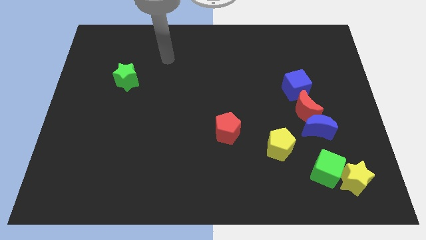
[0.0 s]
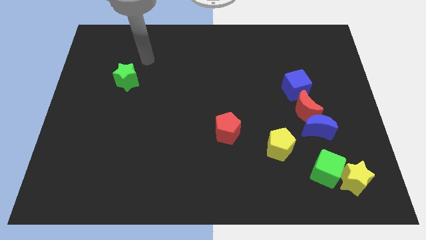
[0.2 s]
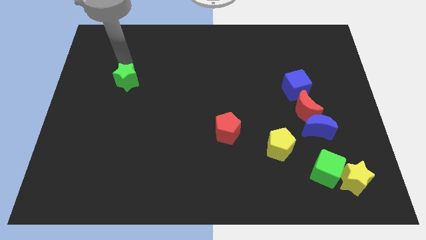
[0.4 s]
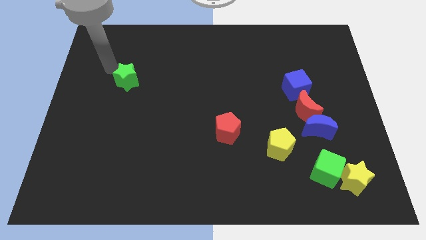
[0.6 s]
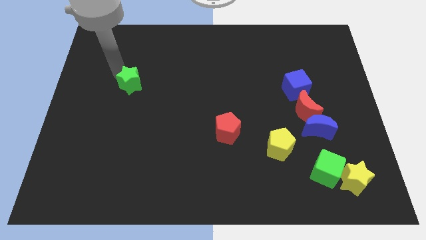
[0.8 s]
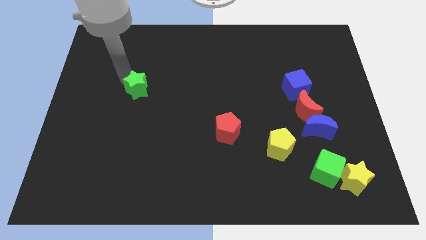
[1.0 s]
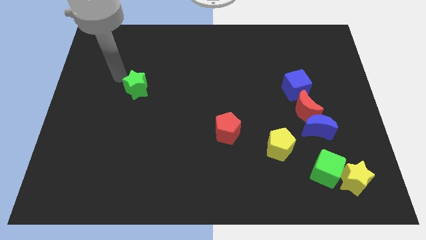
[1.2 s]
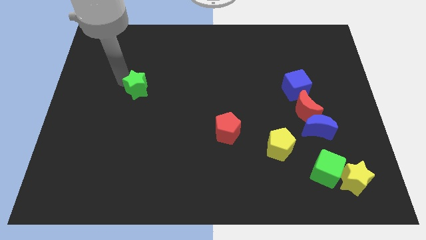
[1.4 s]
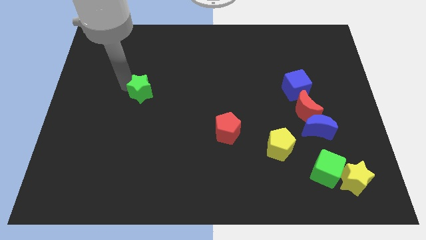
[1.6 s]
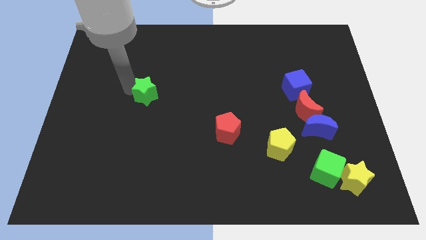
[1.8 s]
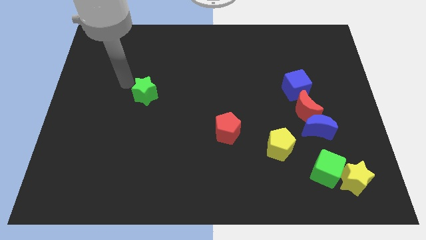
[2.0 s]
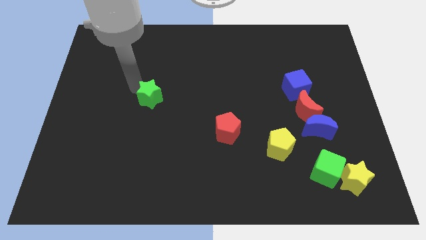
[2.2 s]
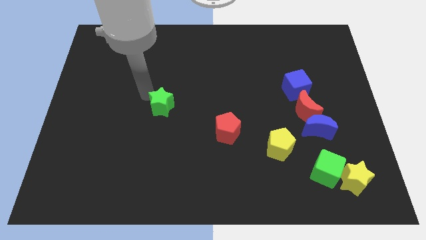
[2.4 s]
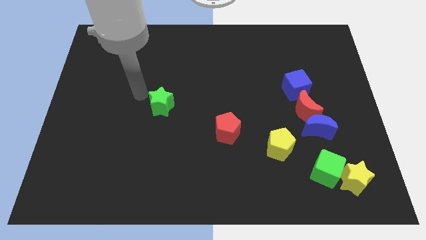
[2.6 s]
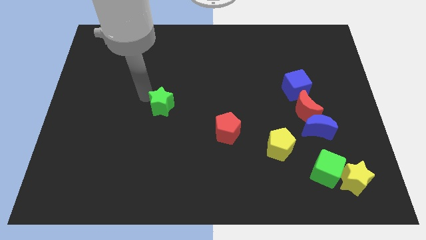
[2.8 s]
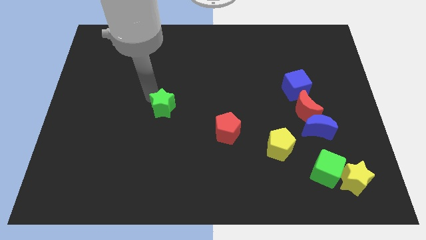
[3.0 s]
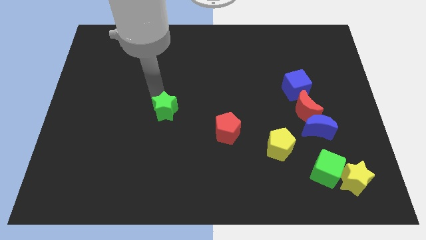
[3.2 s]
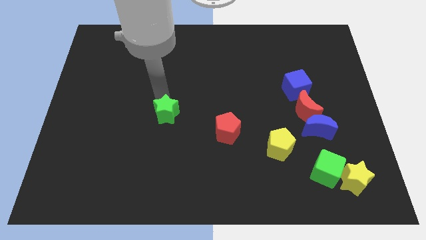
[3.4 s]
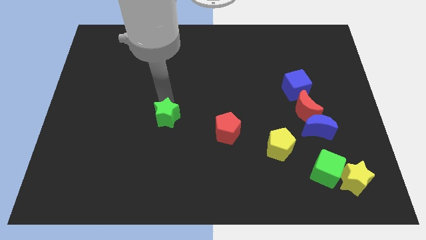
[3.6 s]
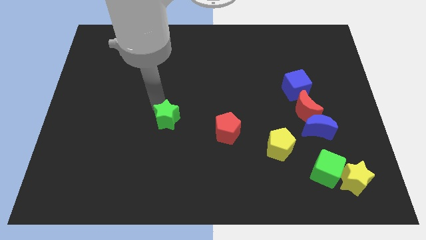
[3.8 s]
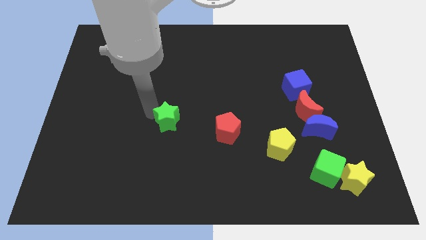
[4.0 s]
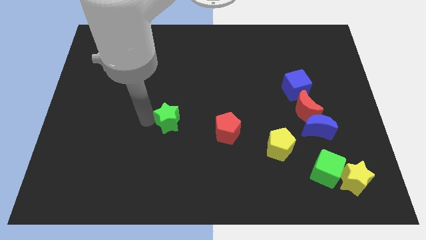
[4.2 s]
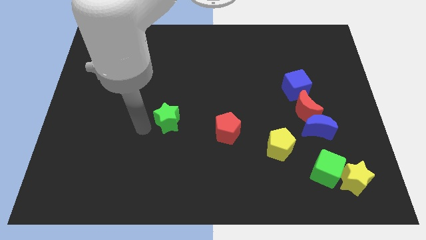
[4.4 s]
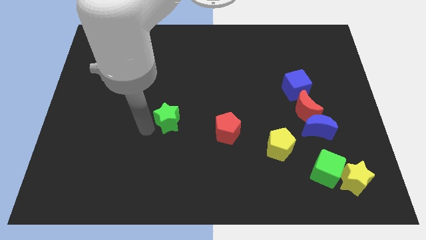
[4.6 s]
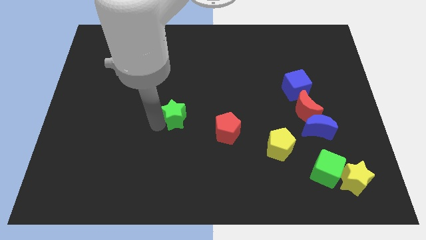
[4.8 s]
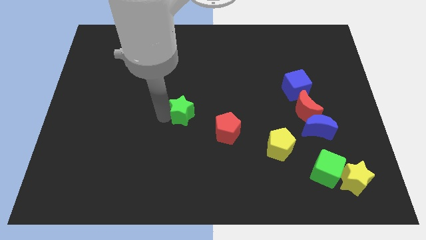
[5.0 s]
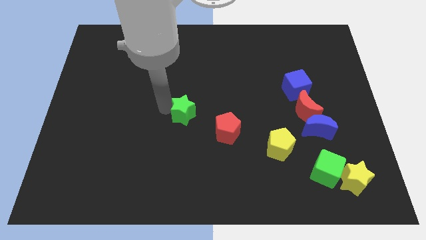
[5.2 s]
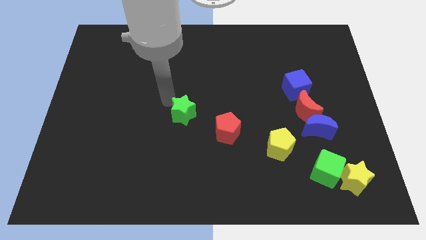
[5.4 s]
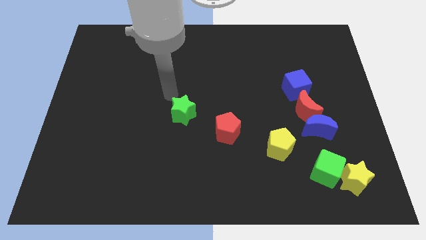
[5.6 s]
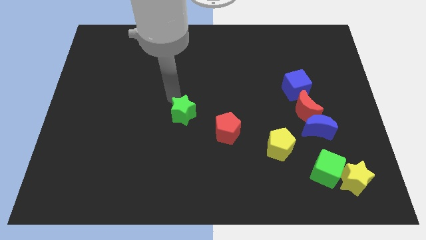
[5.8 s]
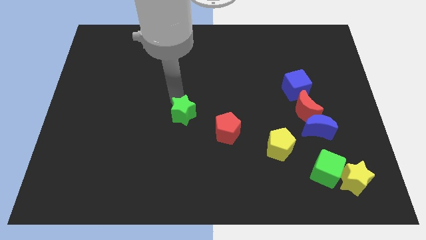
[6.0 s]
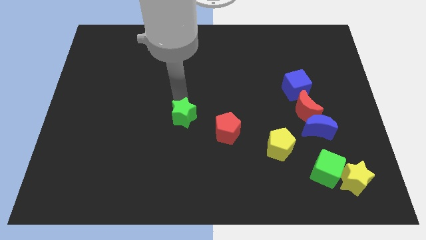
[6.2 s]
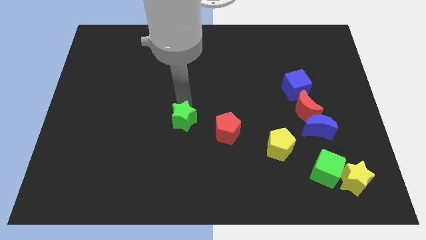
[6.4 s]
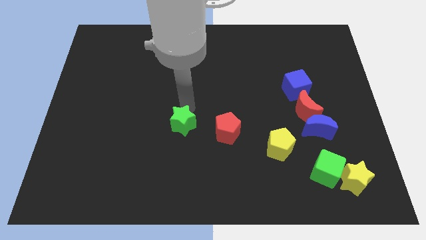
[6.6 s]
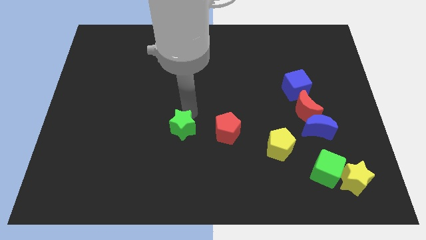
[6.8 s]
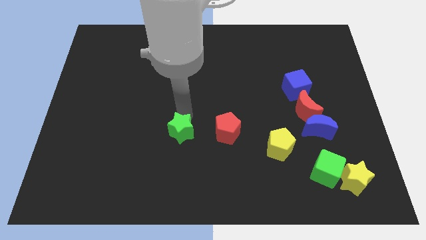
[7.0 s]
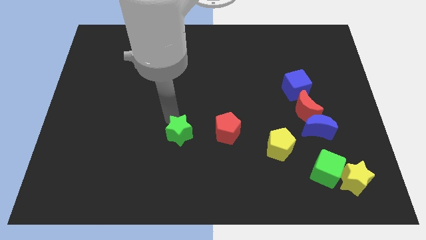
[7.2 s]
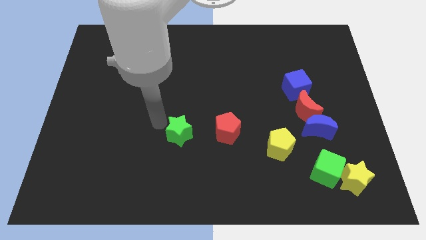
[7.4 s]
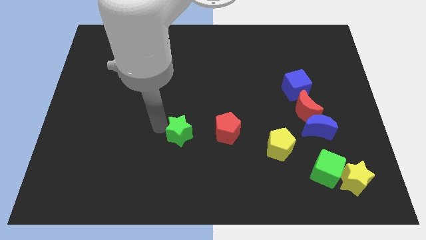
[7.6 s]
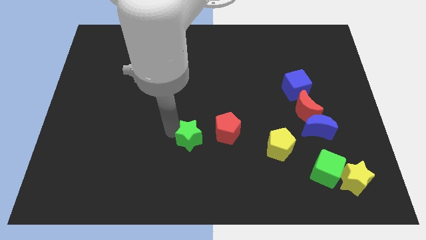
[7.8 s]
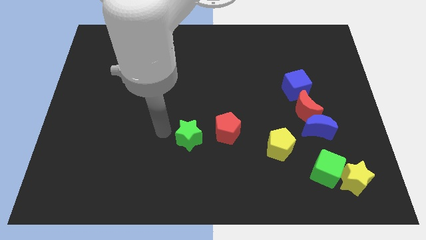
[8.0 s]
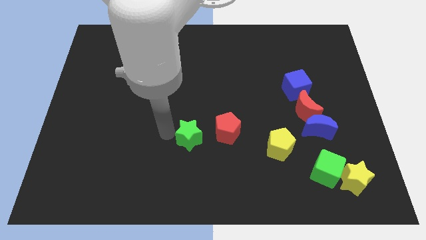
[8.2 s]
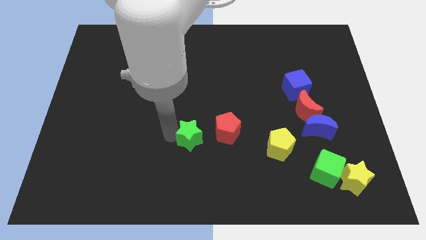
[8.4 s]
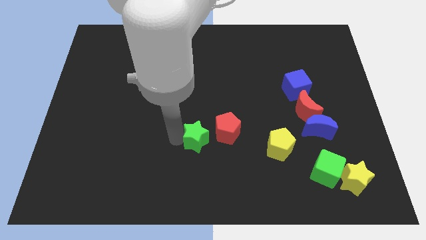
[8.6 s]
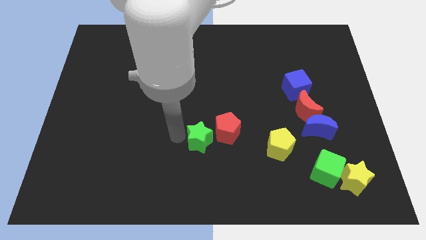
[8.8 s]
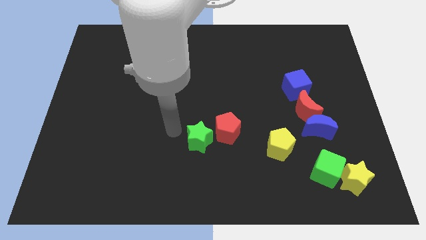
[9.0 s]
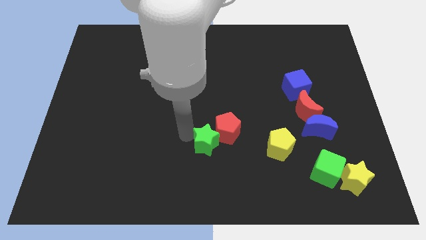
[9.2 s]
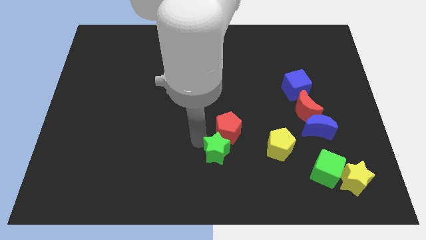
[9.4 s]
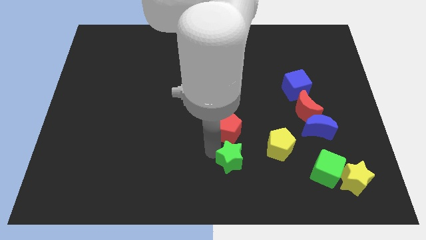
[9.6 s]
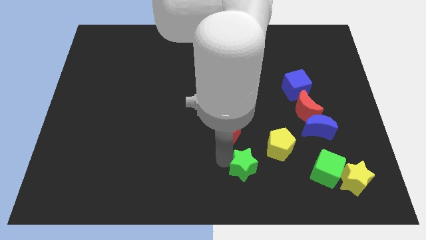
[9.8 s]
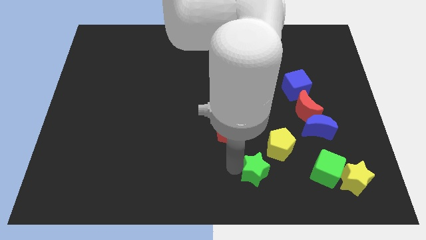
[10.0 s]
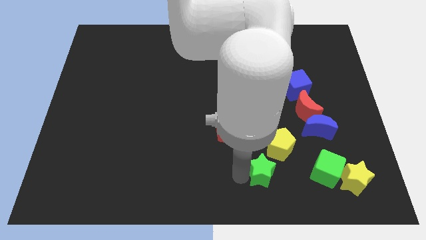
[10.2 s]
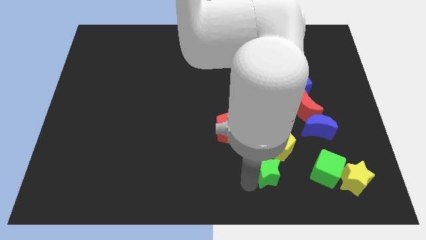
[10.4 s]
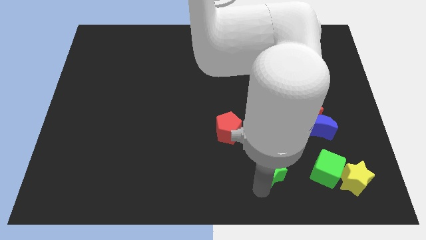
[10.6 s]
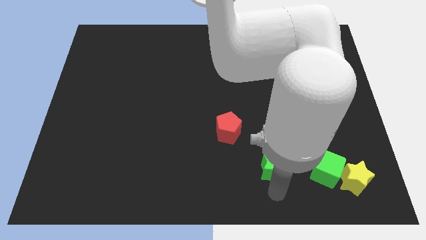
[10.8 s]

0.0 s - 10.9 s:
move the green star just left of the yellow star

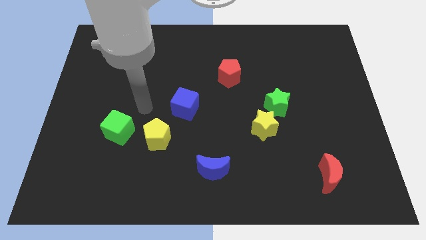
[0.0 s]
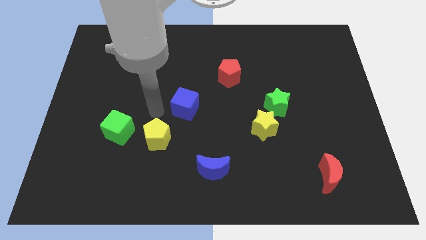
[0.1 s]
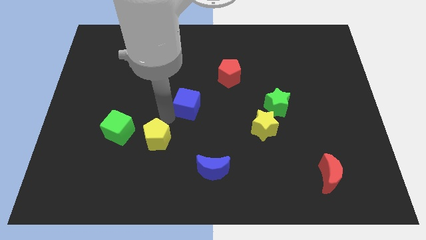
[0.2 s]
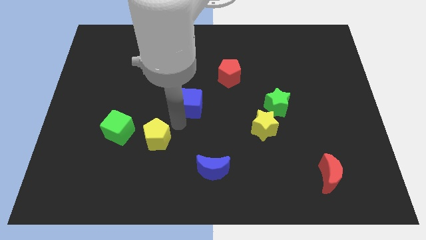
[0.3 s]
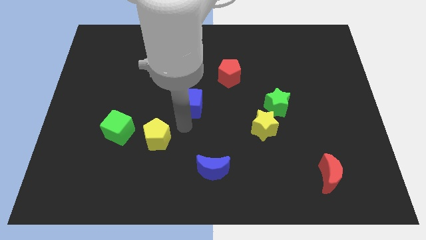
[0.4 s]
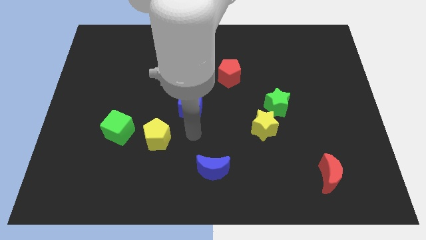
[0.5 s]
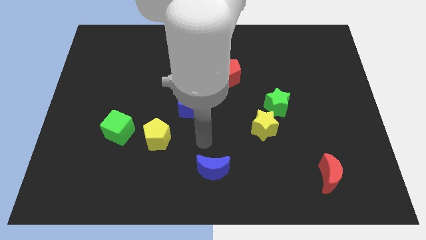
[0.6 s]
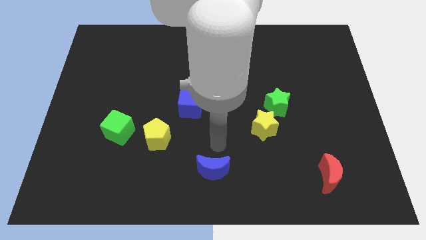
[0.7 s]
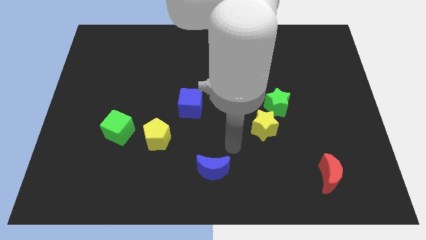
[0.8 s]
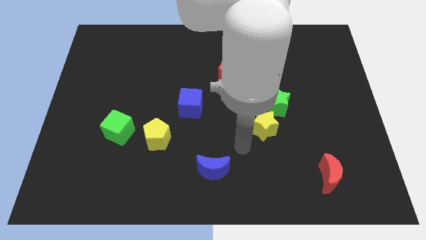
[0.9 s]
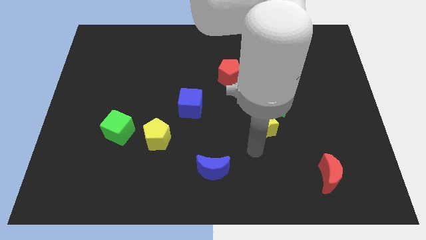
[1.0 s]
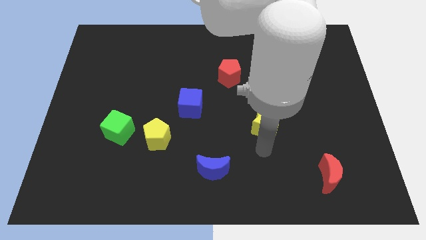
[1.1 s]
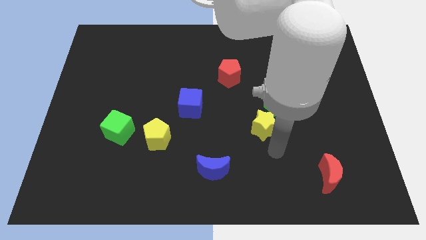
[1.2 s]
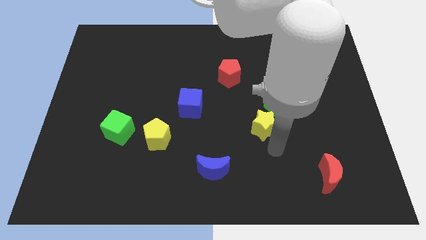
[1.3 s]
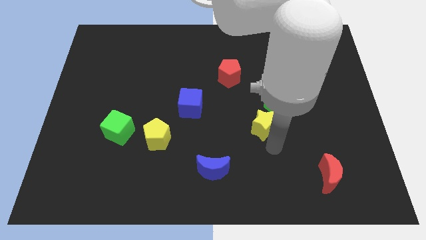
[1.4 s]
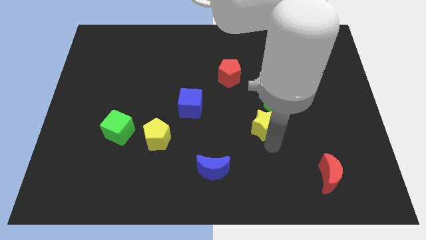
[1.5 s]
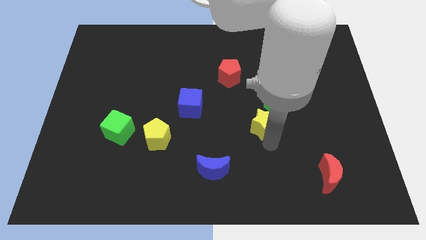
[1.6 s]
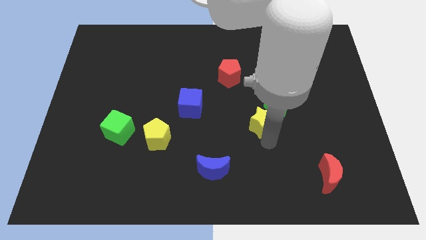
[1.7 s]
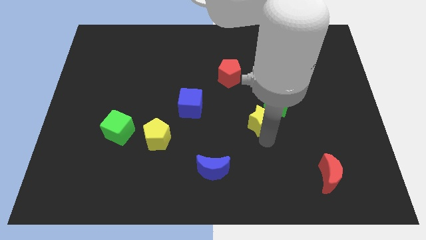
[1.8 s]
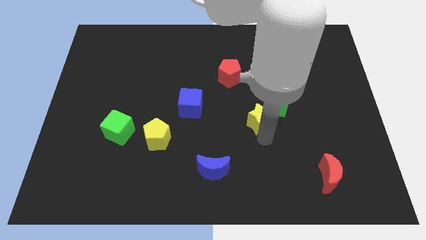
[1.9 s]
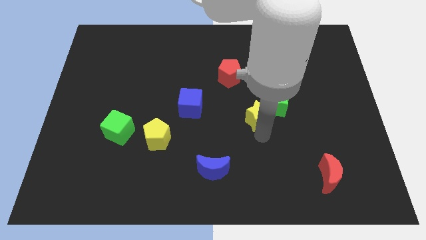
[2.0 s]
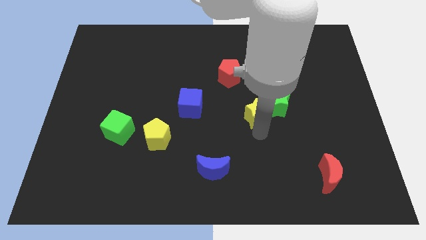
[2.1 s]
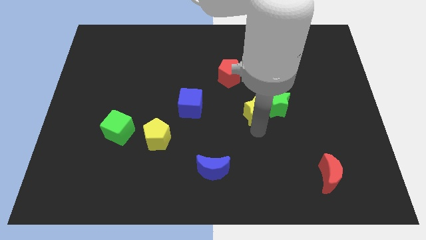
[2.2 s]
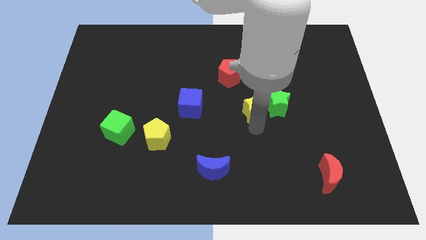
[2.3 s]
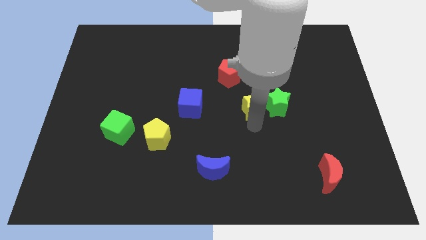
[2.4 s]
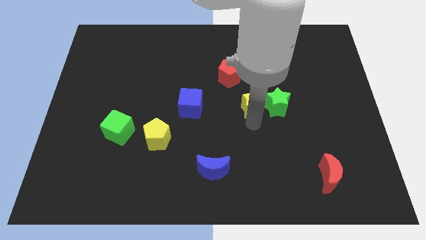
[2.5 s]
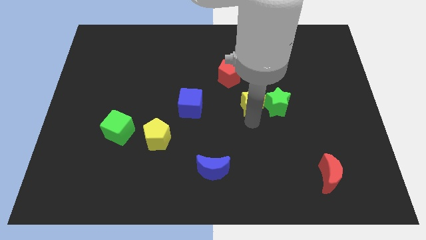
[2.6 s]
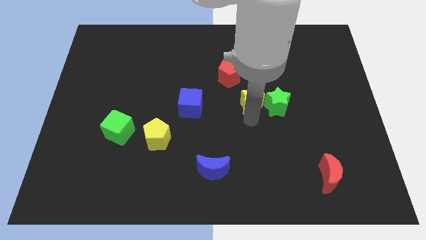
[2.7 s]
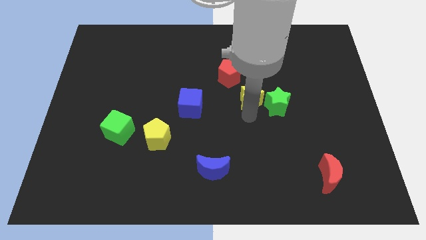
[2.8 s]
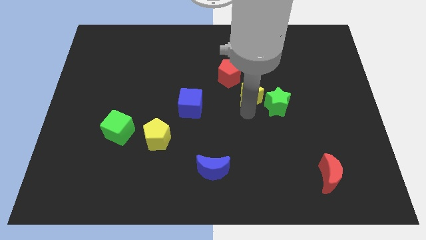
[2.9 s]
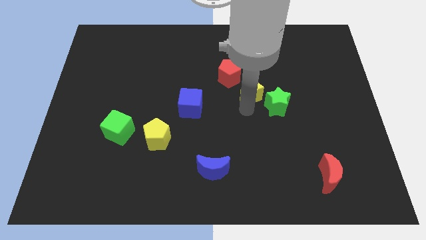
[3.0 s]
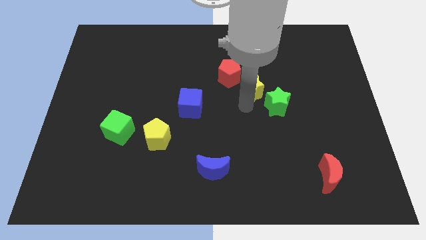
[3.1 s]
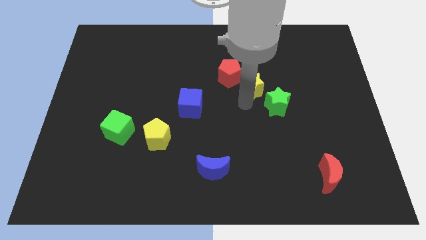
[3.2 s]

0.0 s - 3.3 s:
push the yellow star just right of the red pentagon
